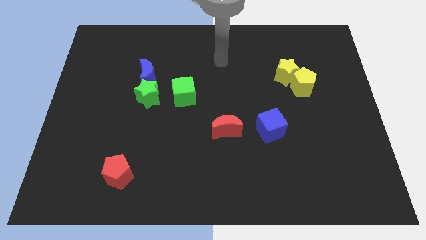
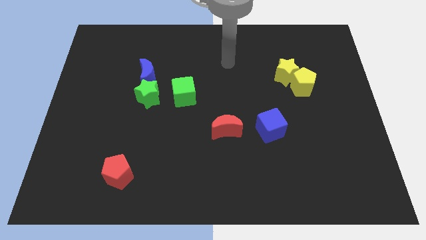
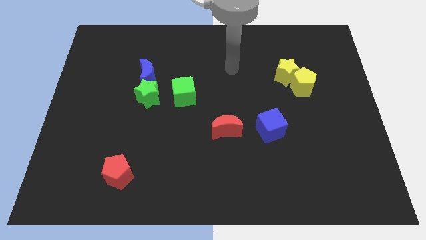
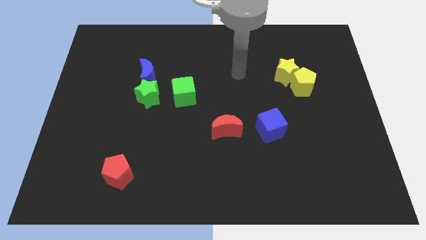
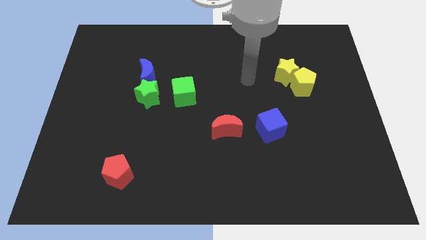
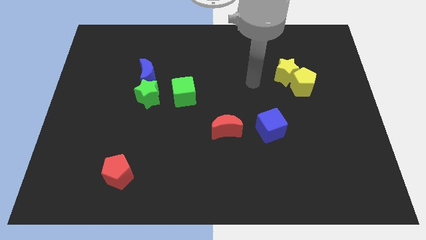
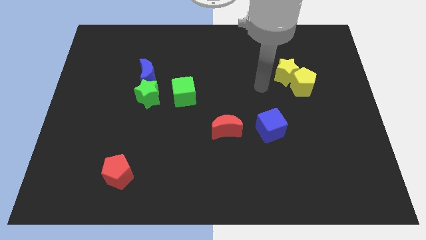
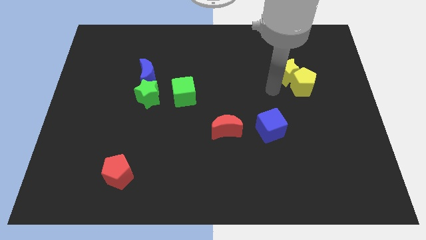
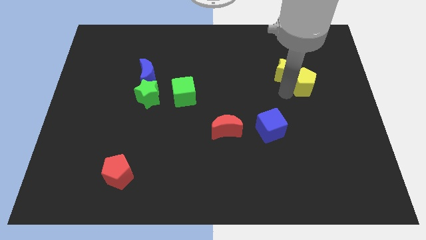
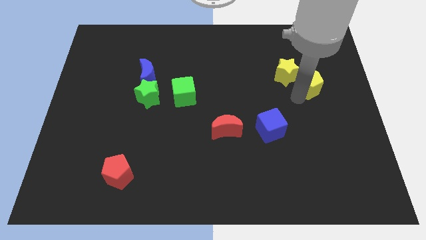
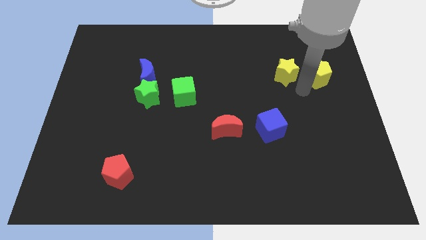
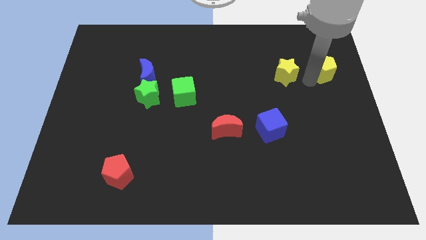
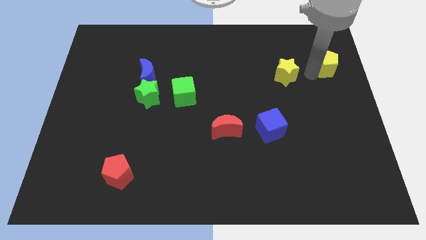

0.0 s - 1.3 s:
move the yellow star away from the yellow pentagon

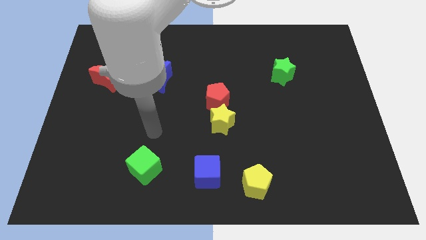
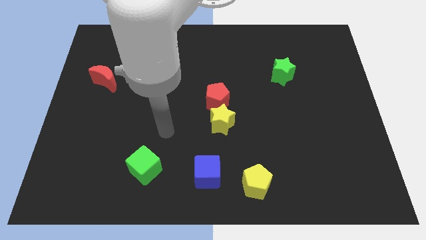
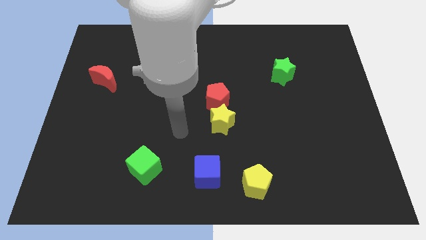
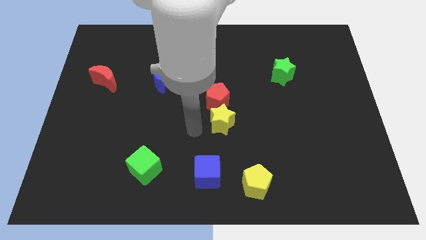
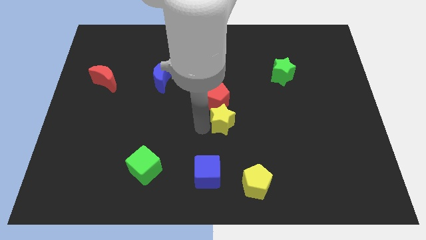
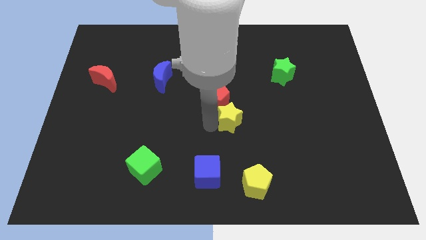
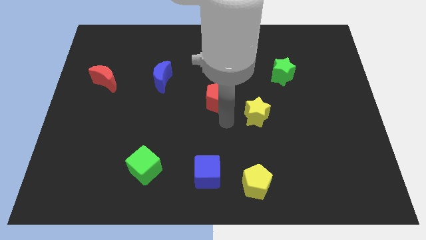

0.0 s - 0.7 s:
pull the red pentagon apart from the yellow star

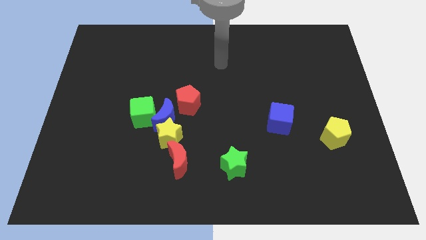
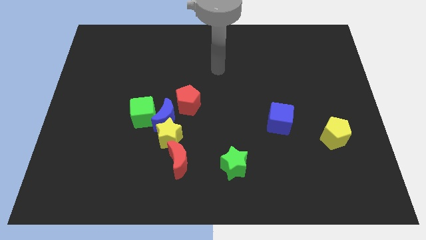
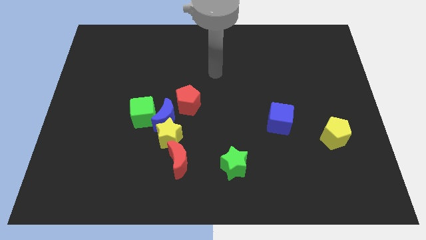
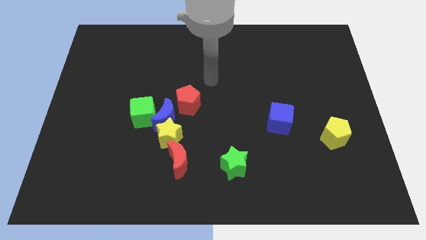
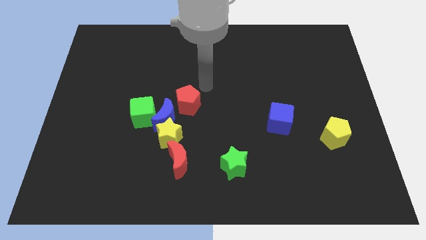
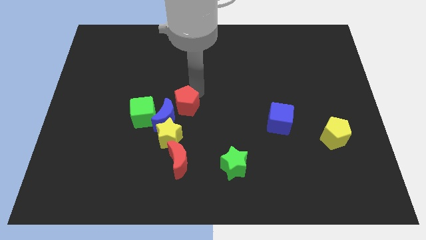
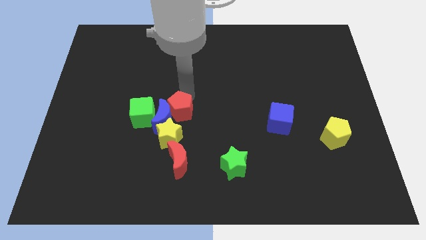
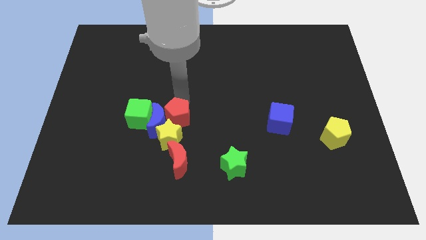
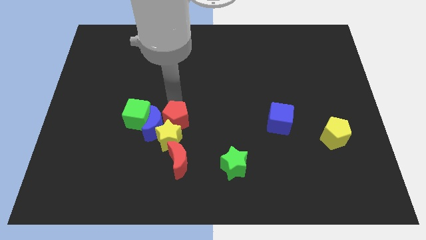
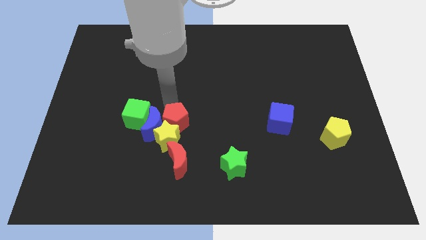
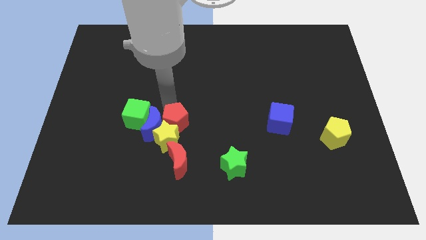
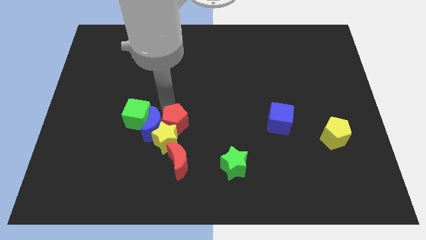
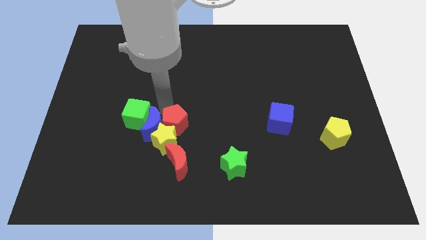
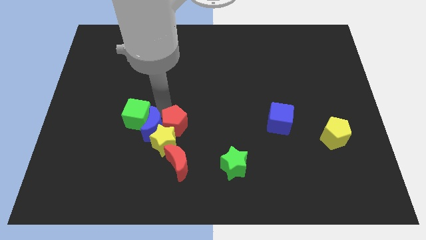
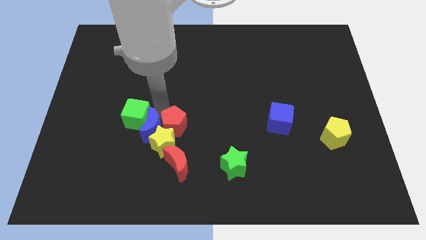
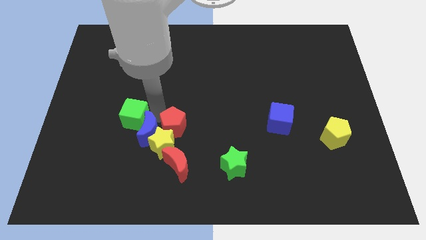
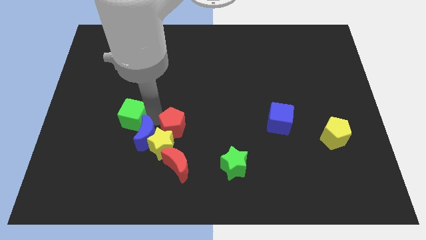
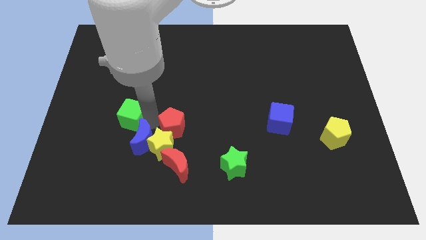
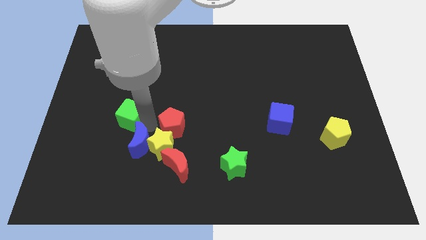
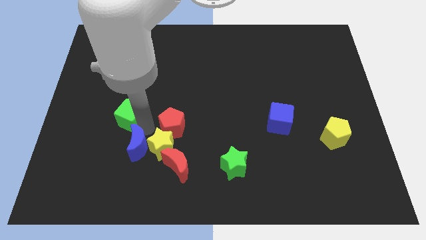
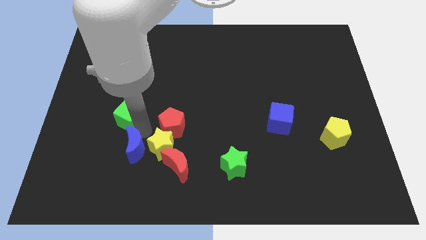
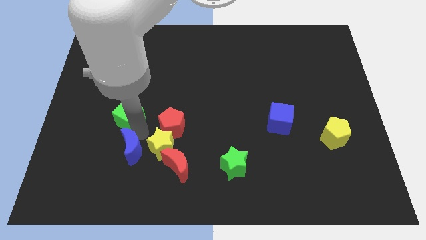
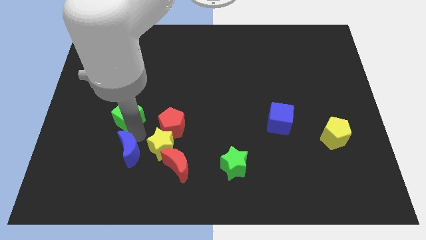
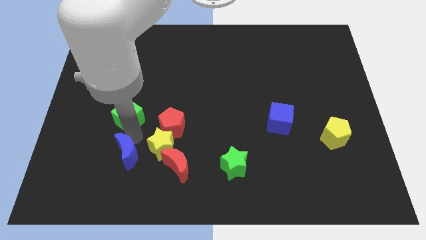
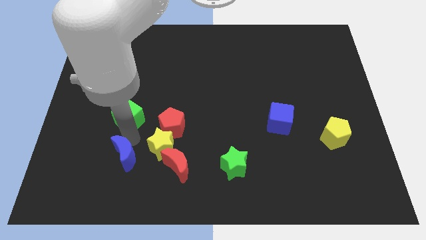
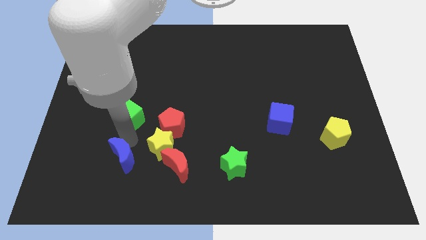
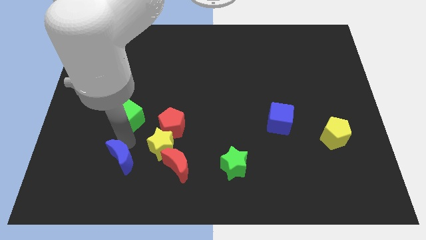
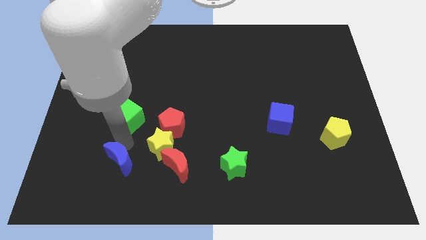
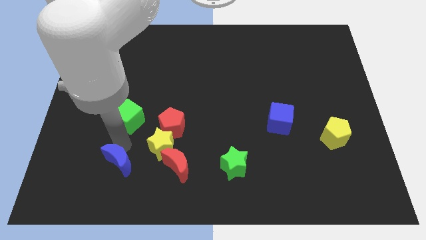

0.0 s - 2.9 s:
separate the blue moon from the yellow star, green cube, and red pentagon

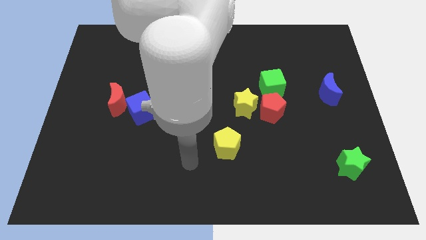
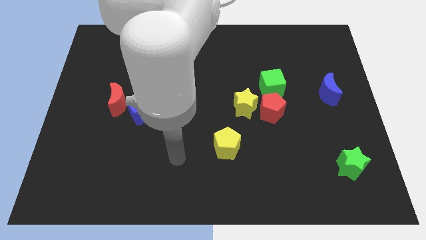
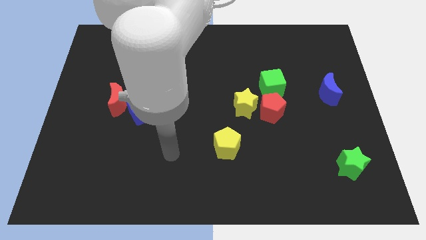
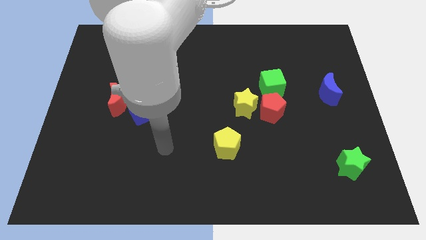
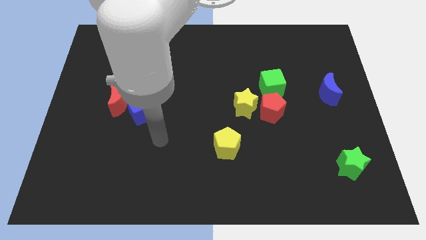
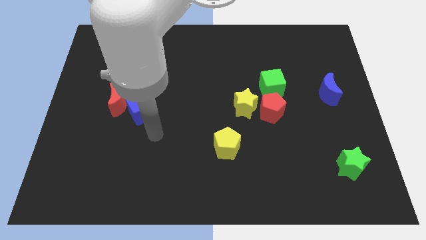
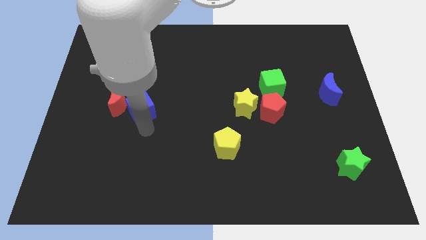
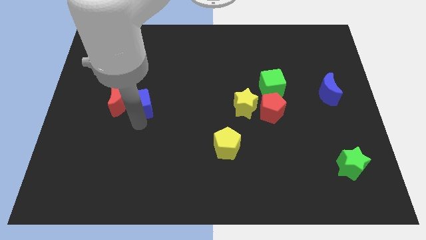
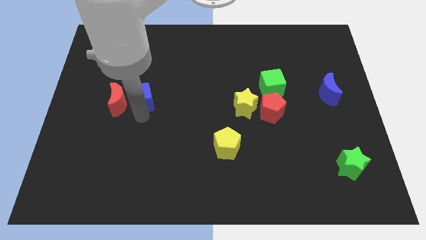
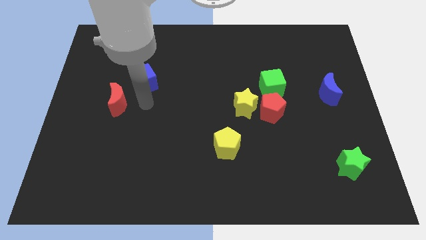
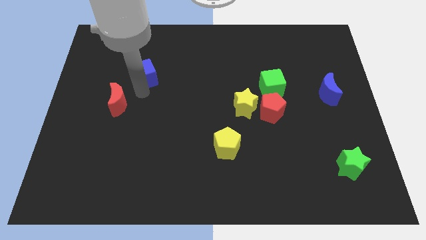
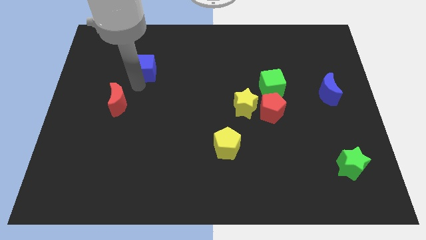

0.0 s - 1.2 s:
separate the red moon from the blue cube

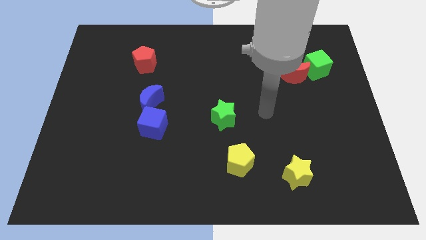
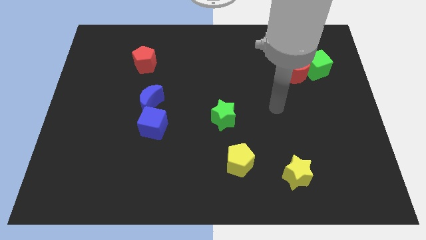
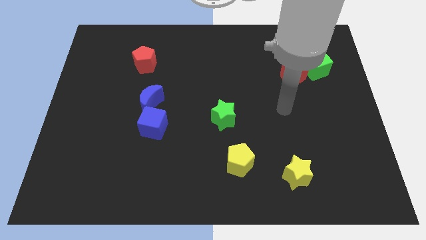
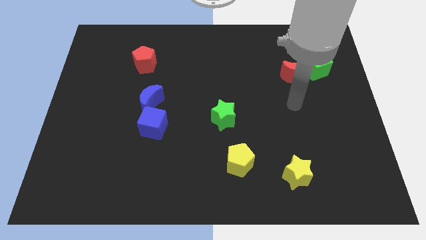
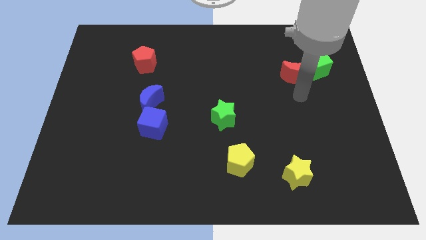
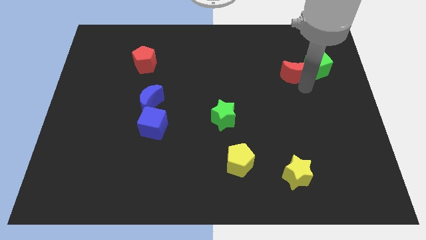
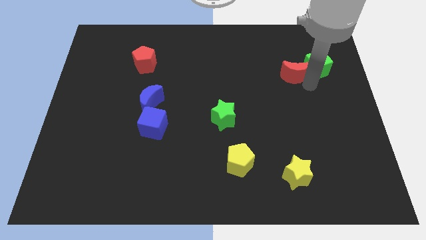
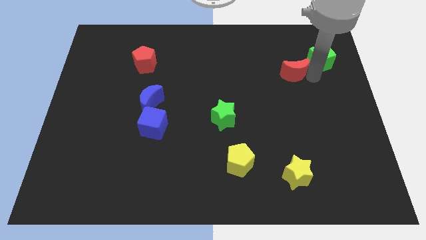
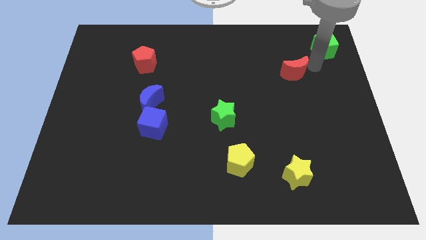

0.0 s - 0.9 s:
move the red moon away from the green cube

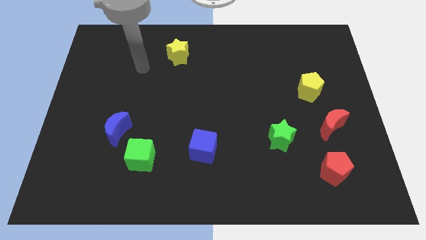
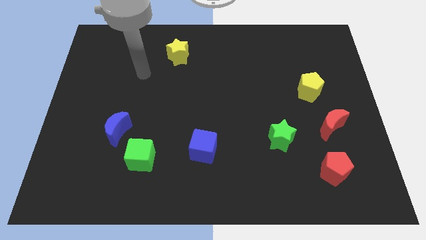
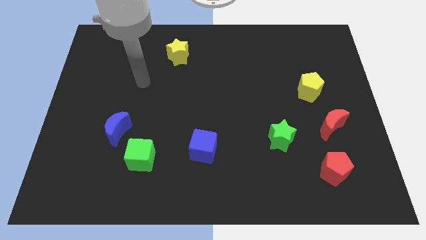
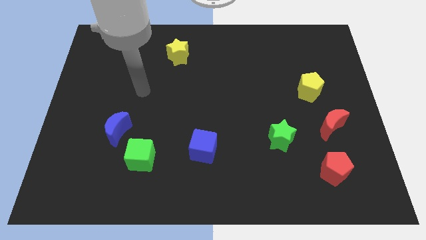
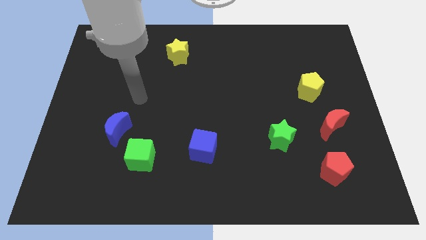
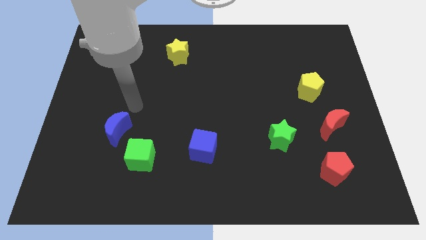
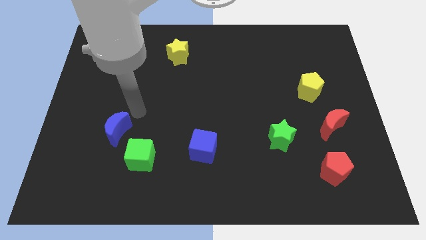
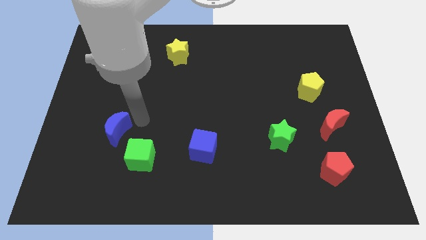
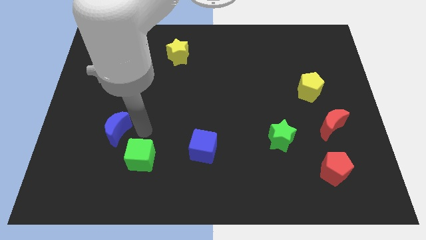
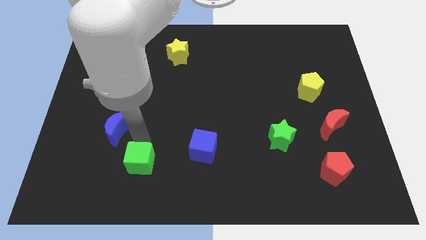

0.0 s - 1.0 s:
pull the blue moon apart from the green cube

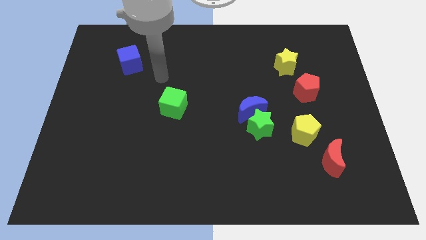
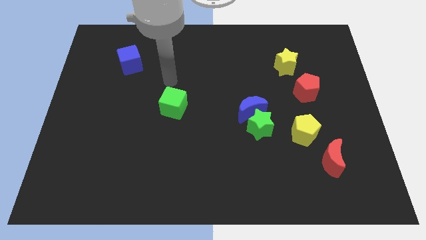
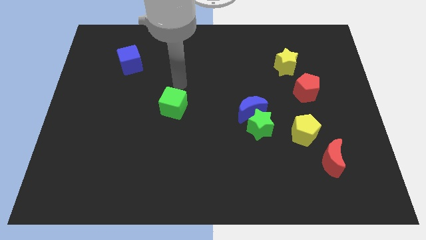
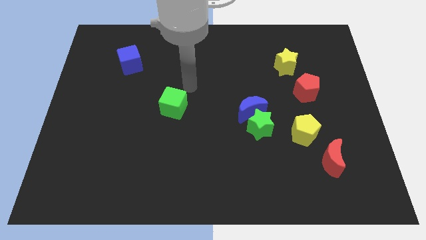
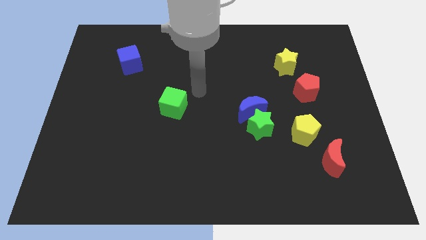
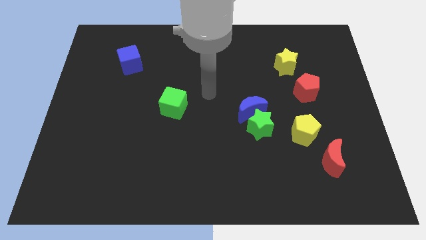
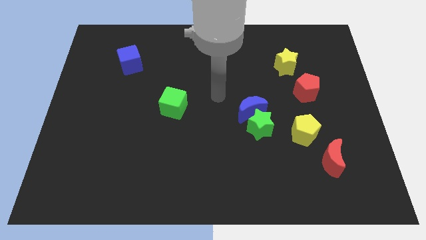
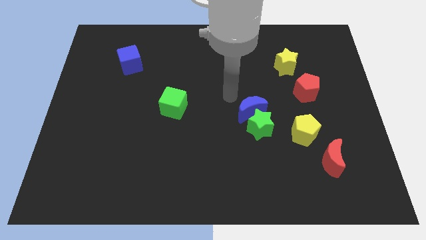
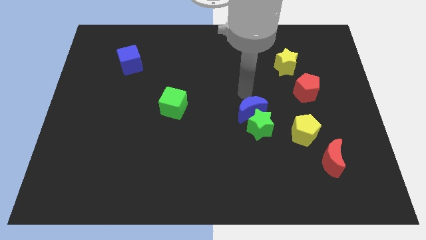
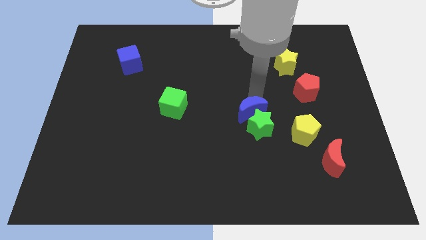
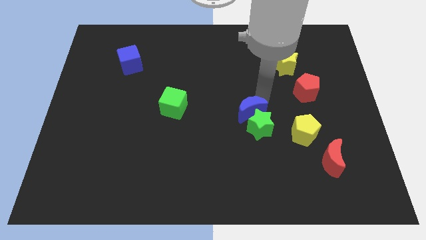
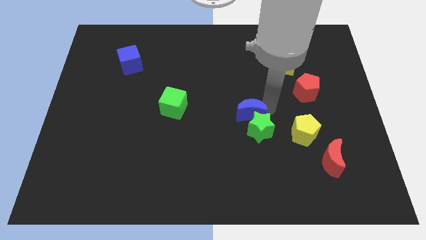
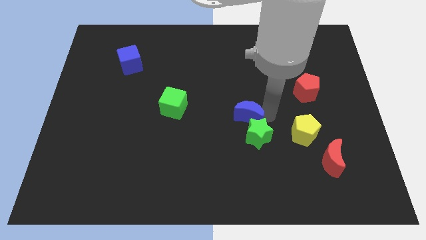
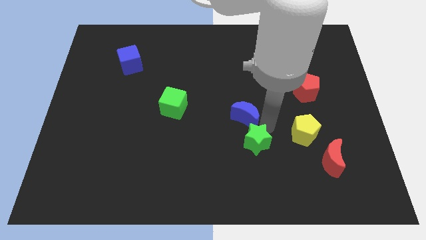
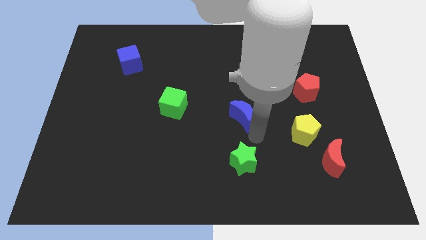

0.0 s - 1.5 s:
separate the blue moon from the green star
